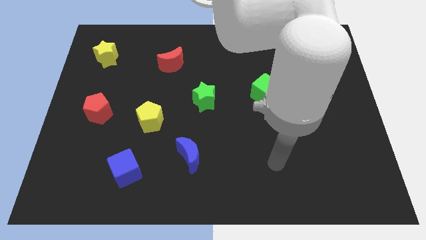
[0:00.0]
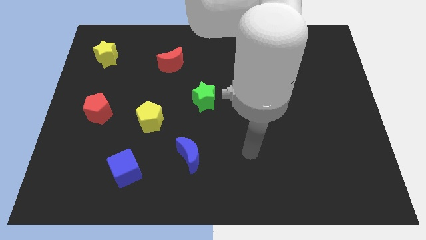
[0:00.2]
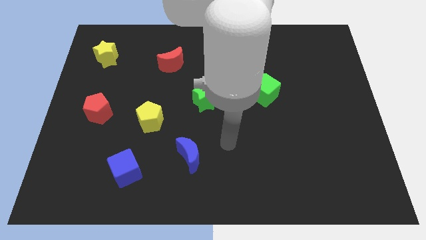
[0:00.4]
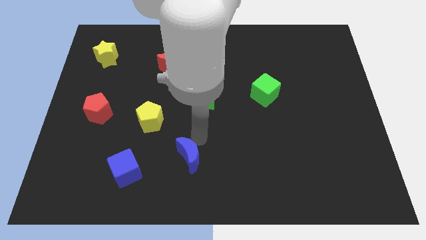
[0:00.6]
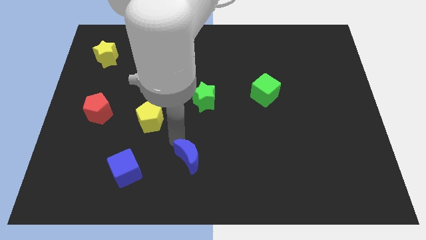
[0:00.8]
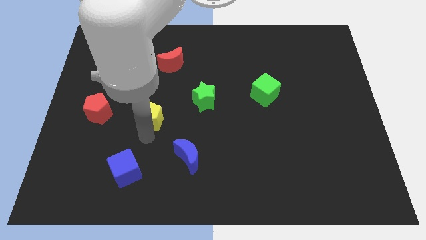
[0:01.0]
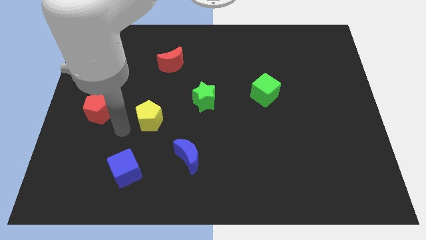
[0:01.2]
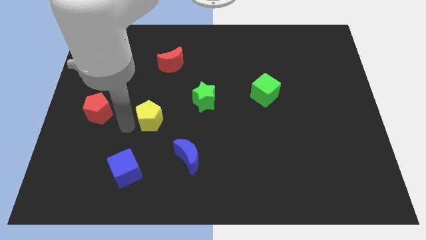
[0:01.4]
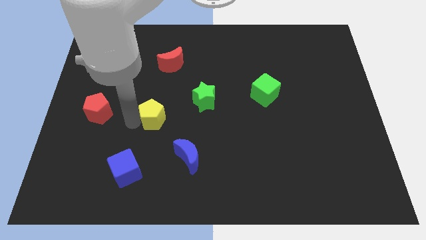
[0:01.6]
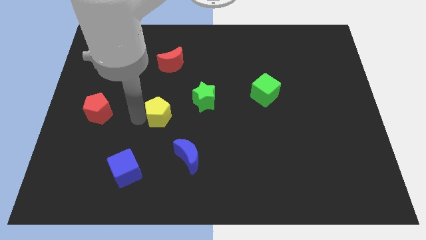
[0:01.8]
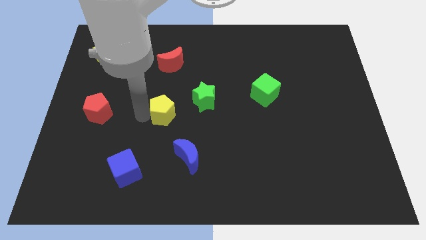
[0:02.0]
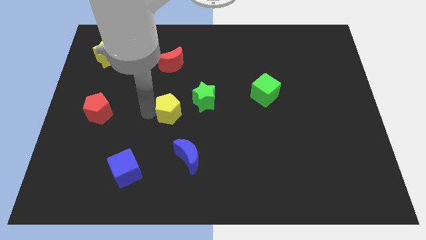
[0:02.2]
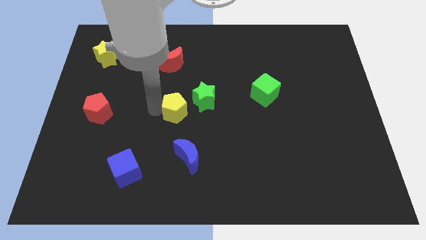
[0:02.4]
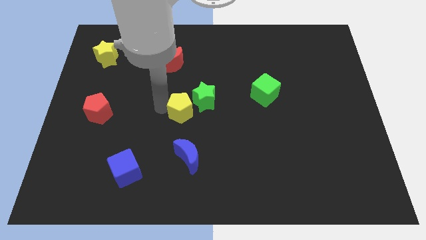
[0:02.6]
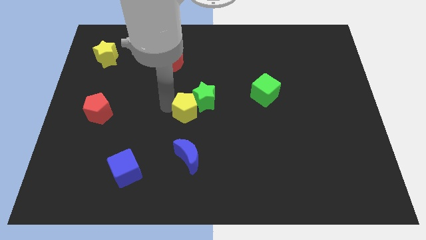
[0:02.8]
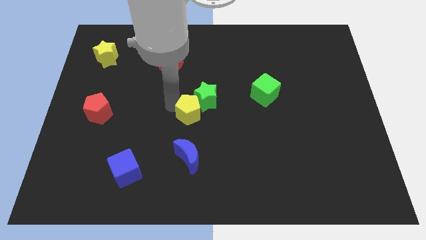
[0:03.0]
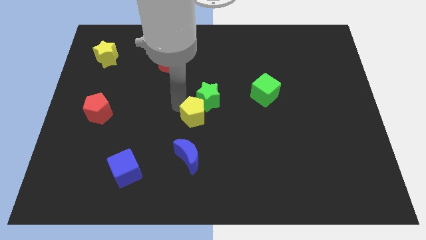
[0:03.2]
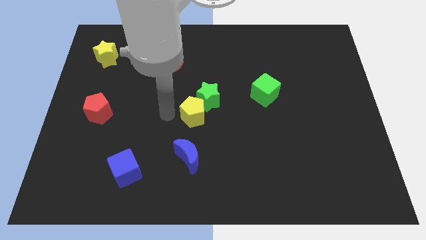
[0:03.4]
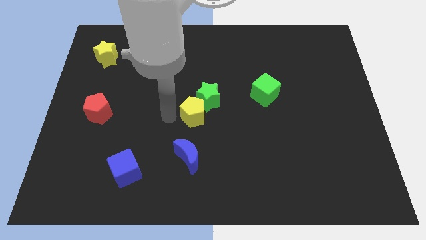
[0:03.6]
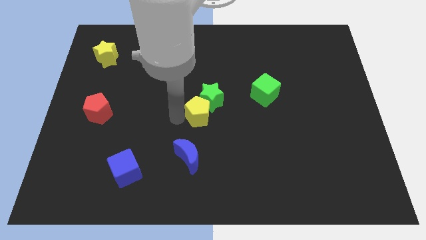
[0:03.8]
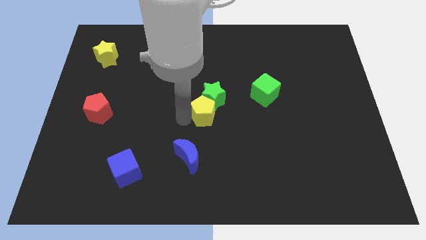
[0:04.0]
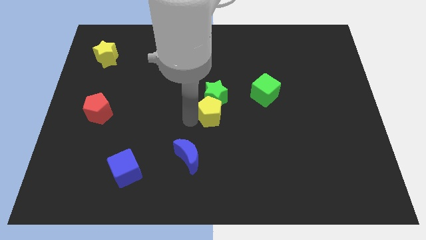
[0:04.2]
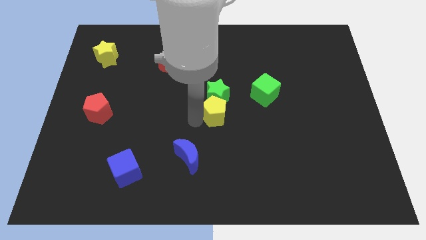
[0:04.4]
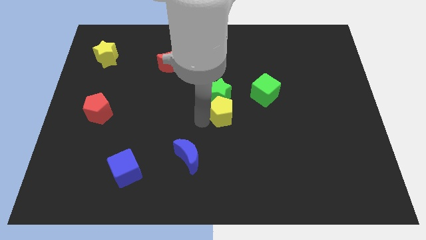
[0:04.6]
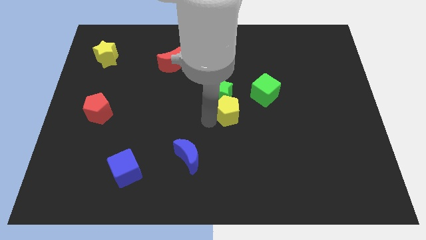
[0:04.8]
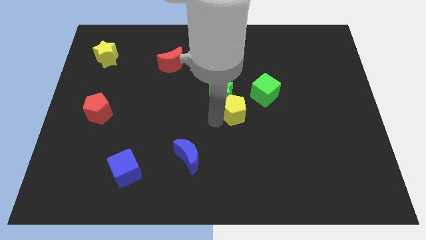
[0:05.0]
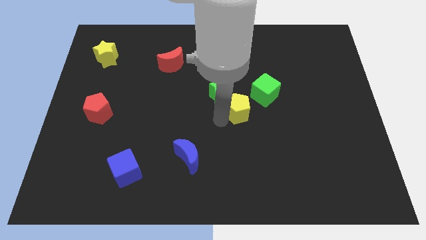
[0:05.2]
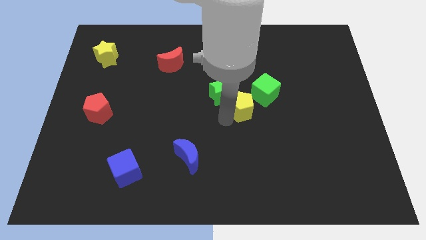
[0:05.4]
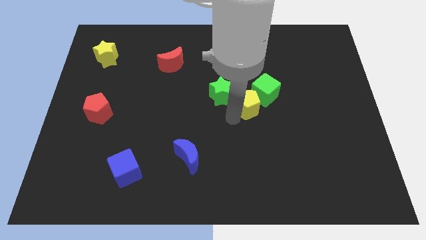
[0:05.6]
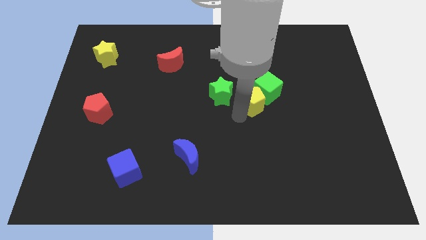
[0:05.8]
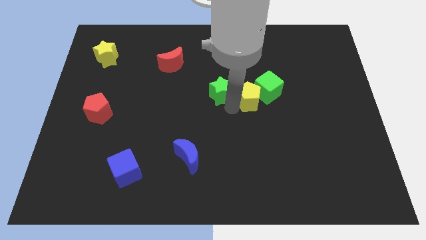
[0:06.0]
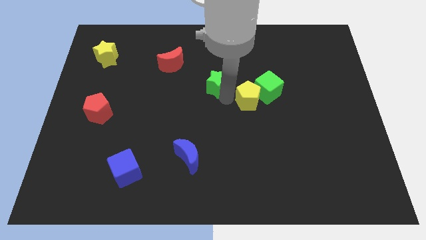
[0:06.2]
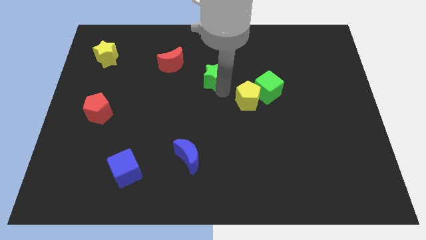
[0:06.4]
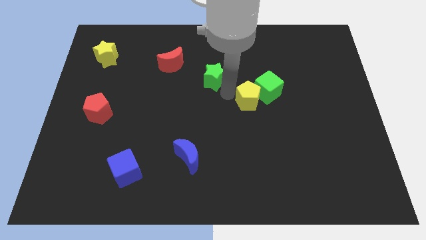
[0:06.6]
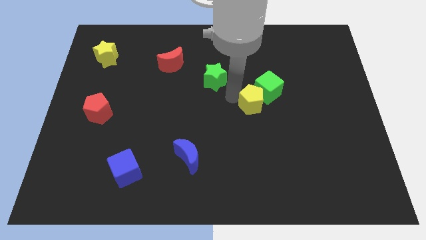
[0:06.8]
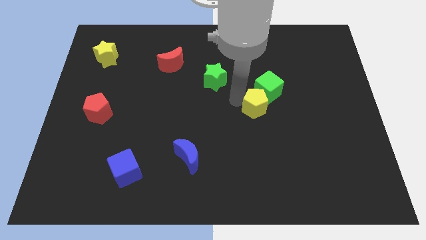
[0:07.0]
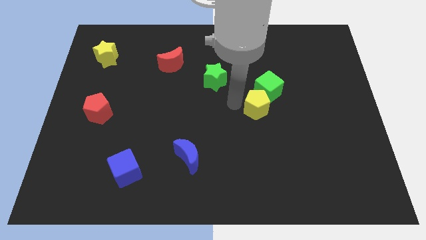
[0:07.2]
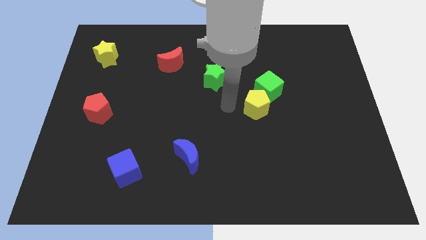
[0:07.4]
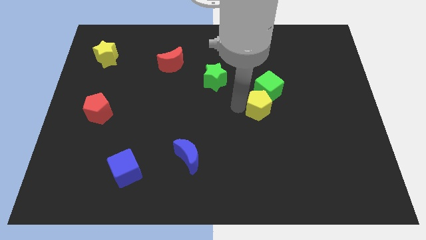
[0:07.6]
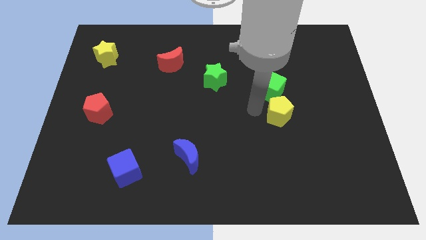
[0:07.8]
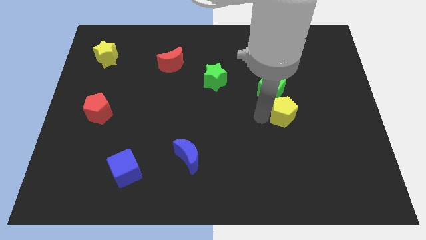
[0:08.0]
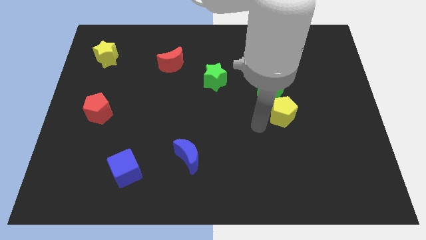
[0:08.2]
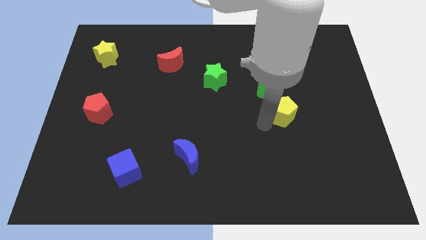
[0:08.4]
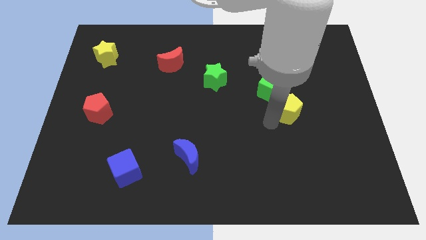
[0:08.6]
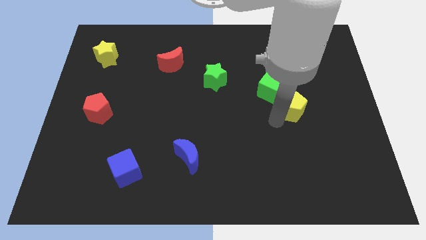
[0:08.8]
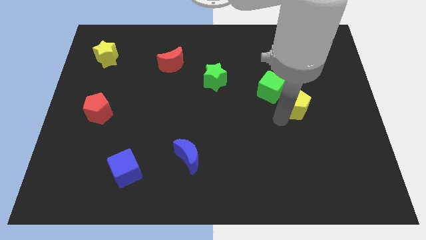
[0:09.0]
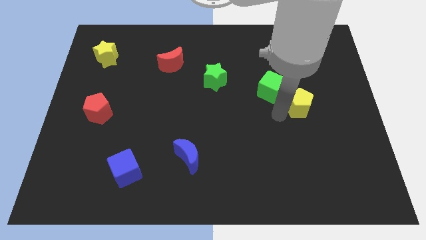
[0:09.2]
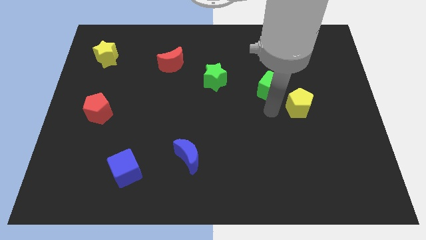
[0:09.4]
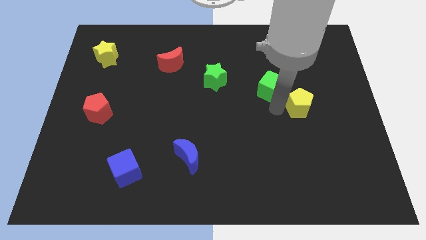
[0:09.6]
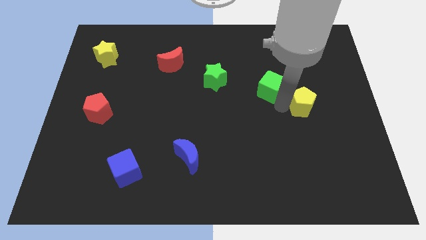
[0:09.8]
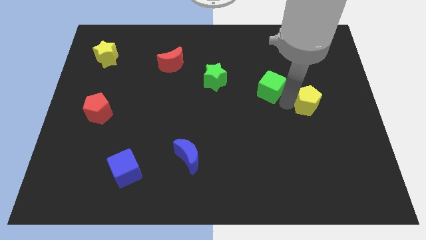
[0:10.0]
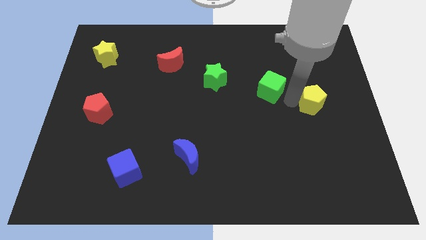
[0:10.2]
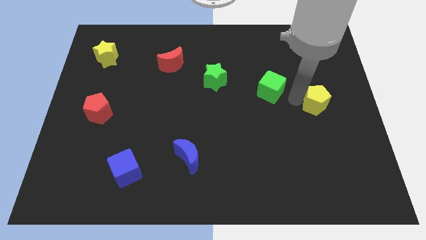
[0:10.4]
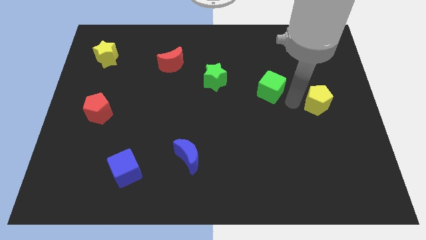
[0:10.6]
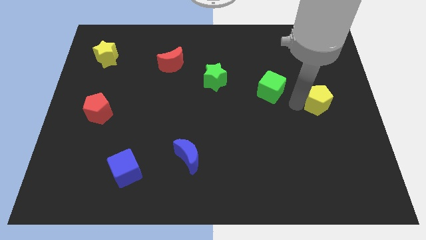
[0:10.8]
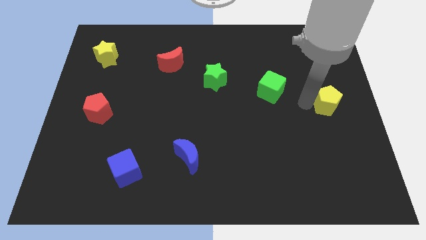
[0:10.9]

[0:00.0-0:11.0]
push the yellow pentagon to the center right
